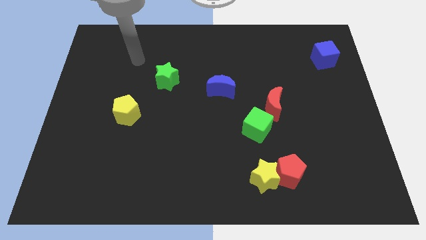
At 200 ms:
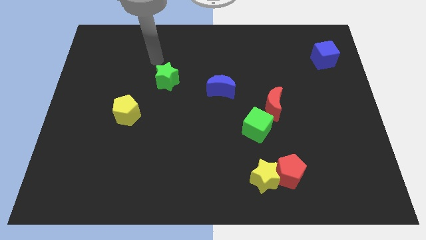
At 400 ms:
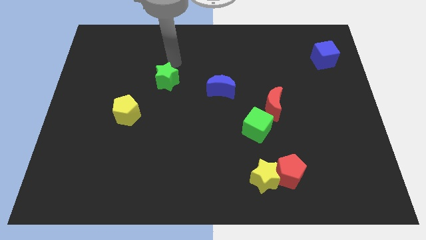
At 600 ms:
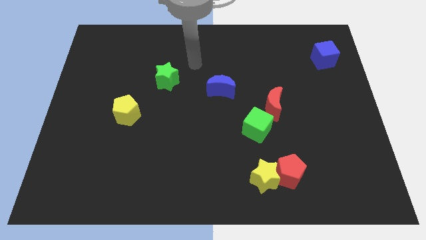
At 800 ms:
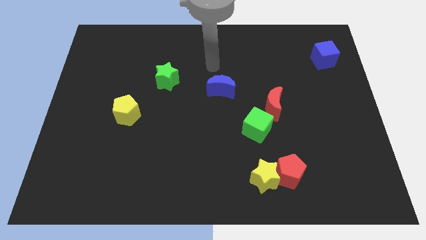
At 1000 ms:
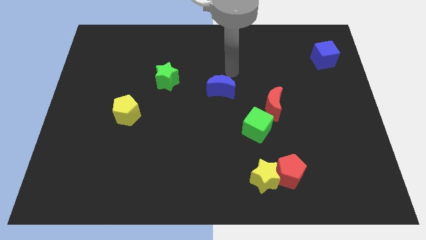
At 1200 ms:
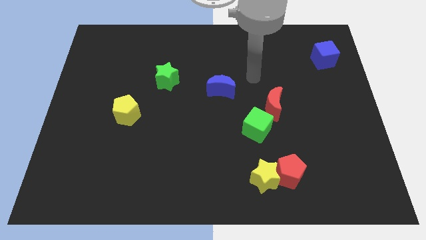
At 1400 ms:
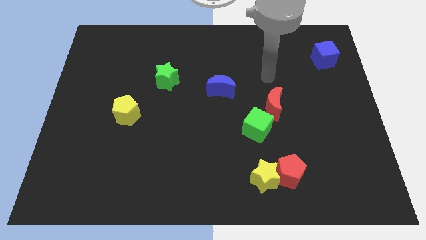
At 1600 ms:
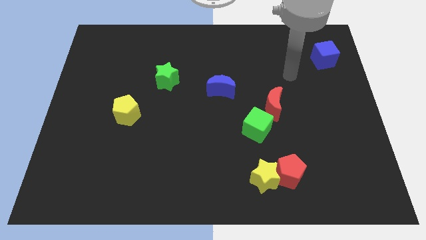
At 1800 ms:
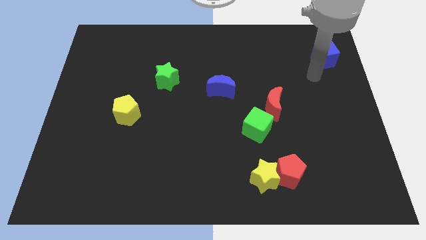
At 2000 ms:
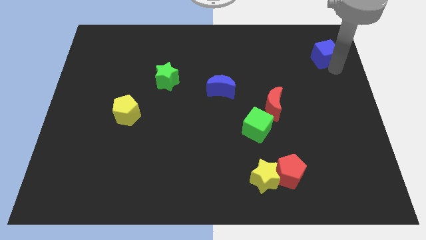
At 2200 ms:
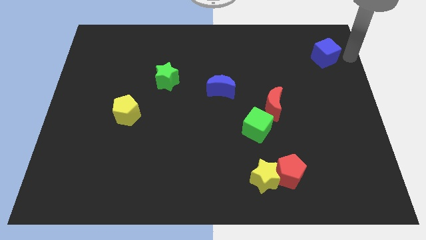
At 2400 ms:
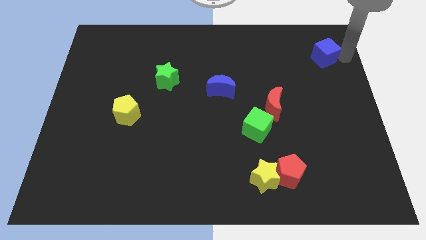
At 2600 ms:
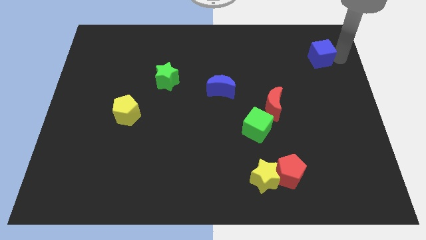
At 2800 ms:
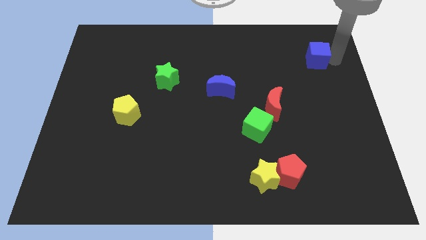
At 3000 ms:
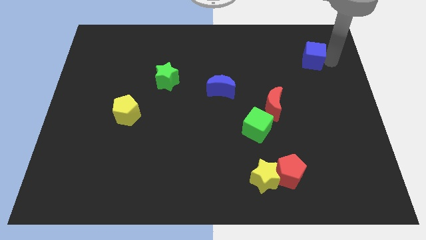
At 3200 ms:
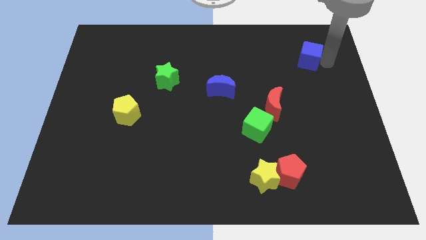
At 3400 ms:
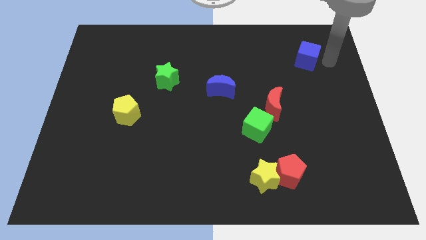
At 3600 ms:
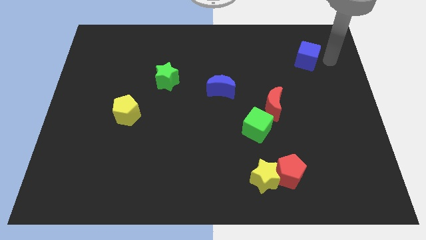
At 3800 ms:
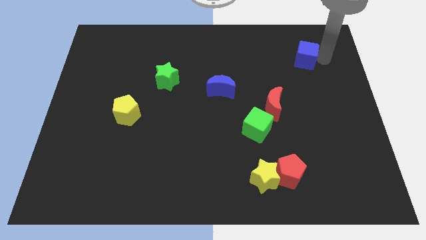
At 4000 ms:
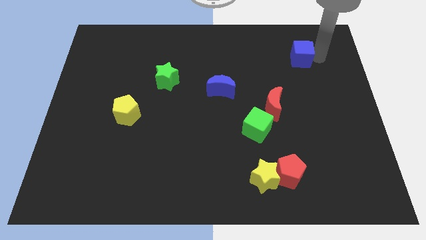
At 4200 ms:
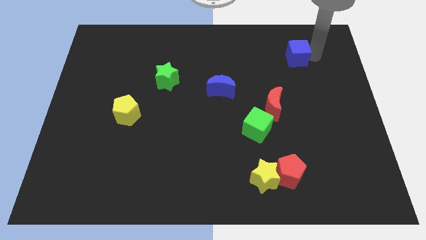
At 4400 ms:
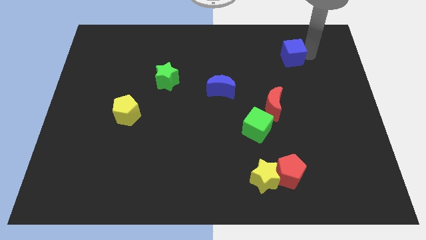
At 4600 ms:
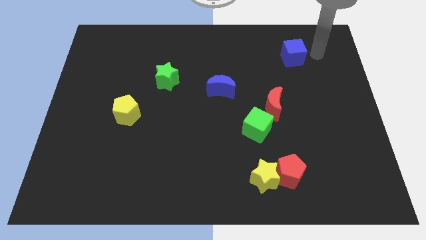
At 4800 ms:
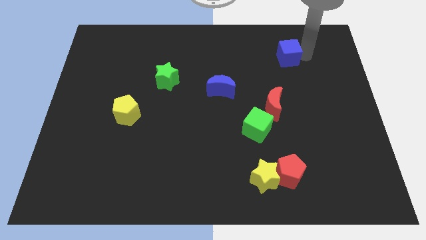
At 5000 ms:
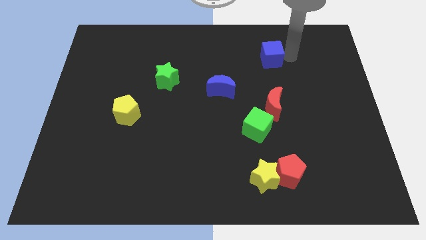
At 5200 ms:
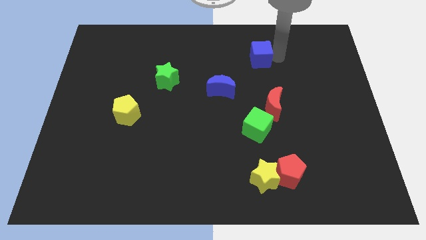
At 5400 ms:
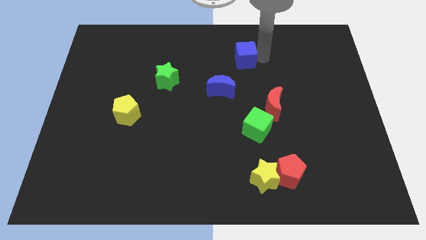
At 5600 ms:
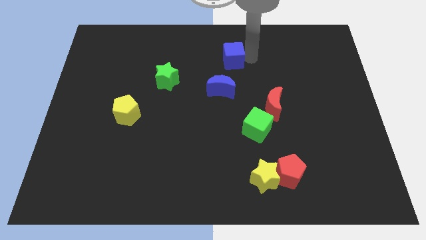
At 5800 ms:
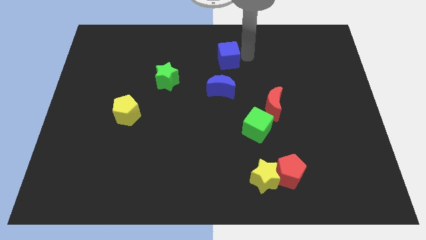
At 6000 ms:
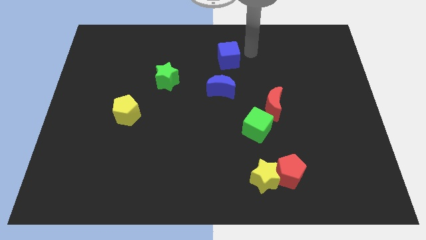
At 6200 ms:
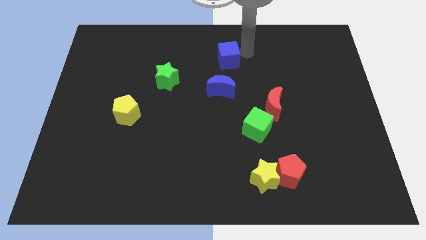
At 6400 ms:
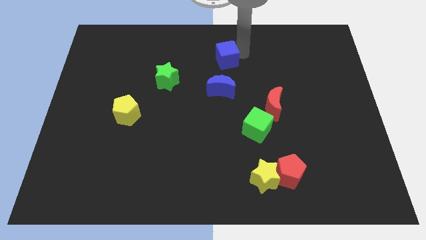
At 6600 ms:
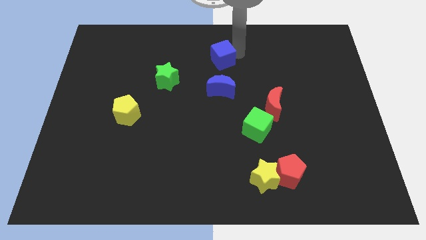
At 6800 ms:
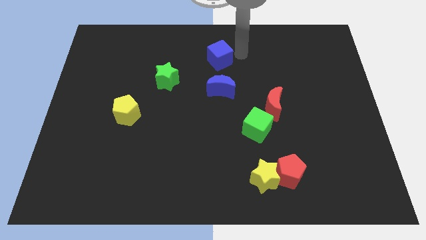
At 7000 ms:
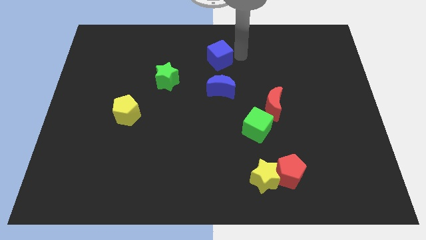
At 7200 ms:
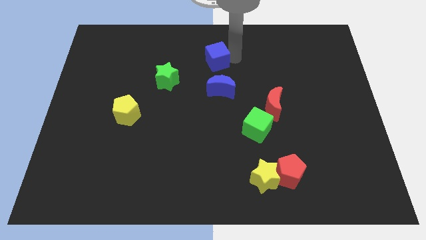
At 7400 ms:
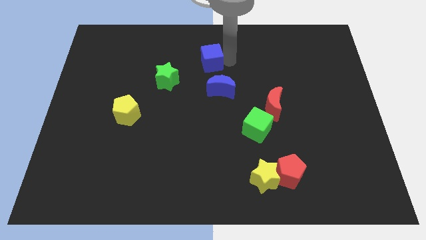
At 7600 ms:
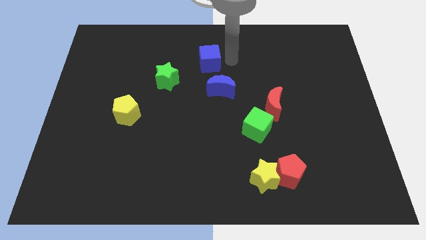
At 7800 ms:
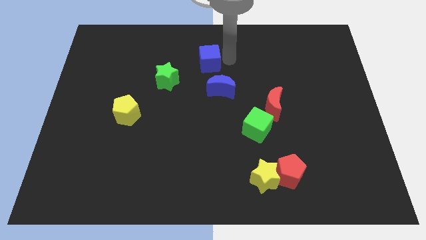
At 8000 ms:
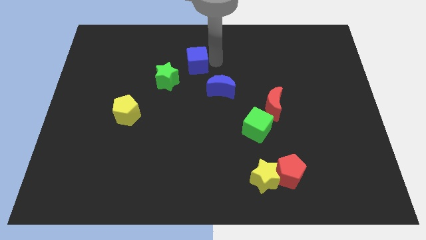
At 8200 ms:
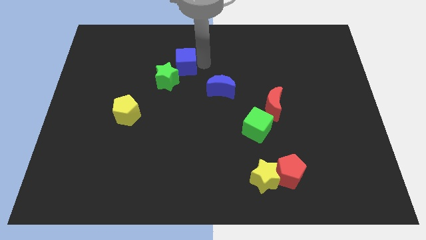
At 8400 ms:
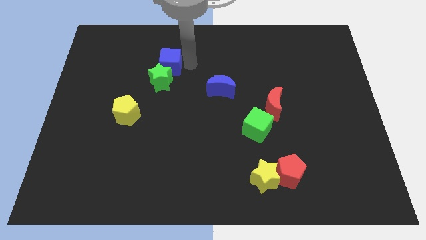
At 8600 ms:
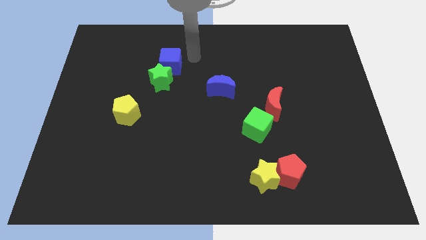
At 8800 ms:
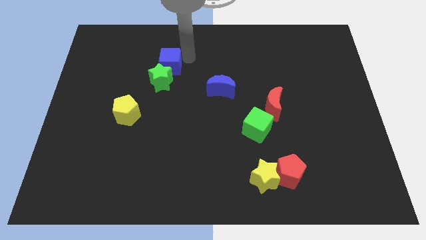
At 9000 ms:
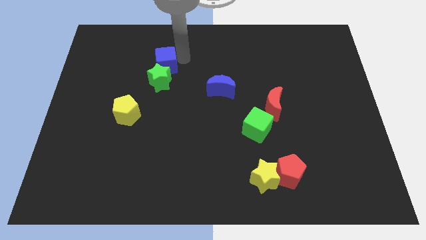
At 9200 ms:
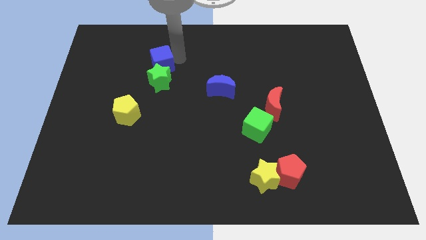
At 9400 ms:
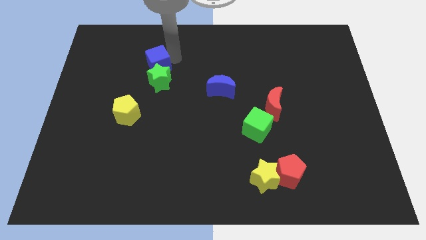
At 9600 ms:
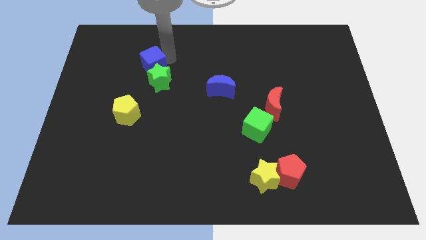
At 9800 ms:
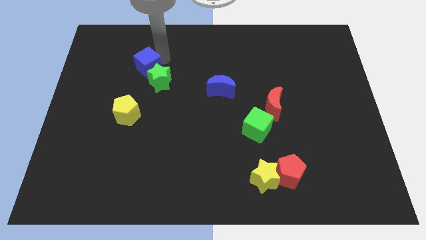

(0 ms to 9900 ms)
push the blue cube to the top side of the yellow pentagon

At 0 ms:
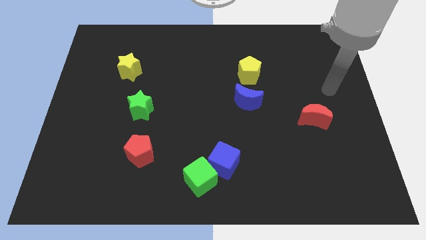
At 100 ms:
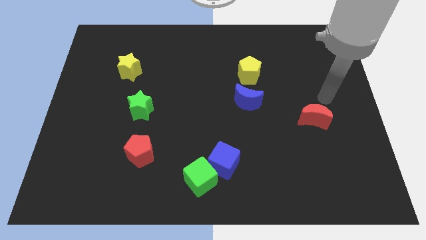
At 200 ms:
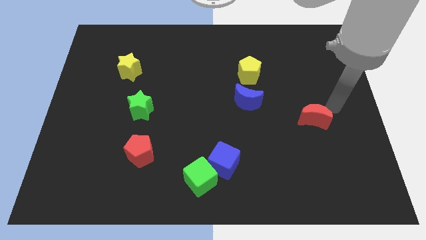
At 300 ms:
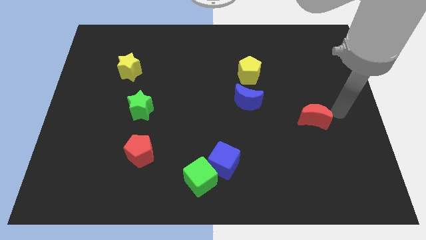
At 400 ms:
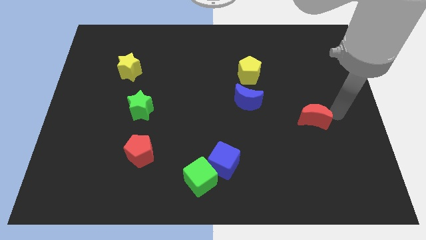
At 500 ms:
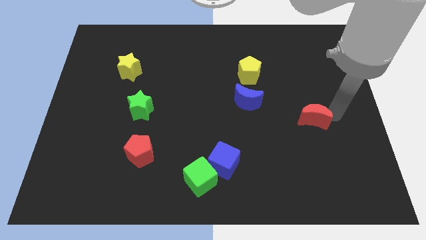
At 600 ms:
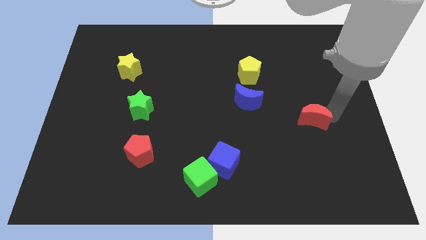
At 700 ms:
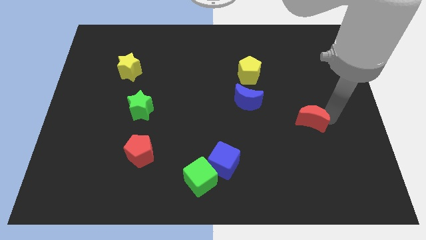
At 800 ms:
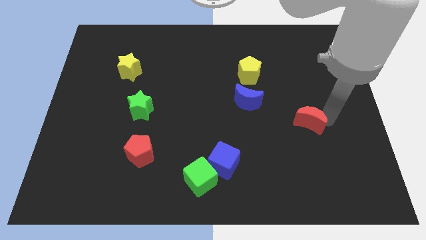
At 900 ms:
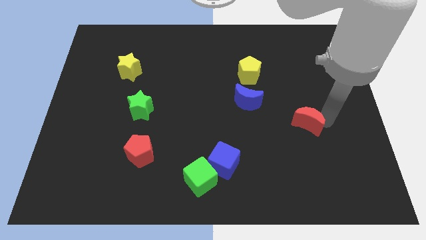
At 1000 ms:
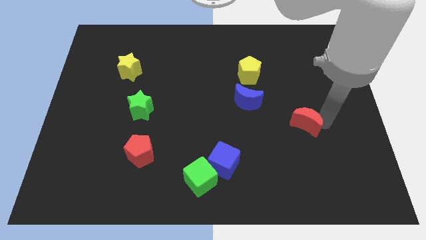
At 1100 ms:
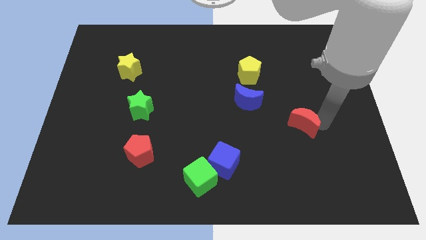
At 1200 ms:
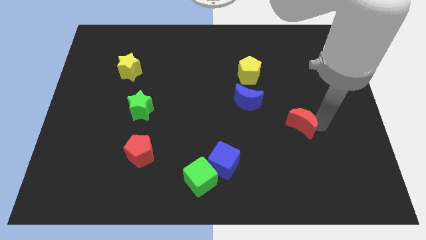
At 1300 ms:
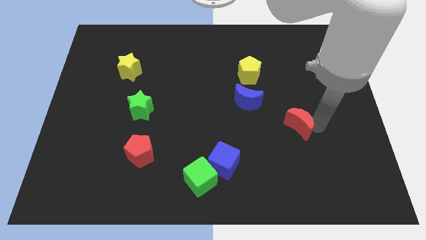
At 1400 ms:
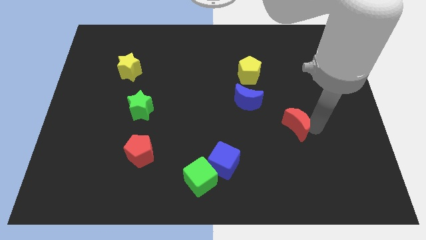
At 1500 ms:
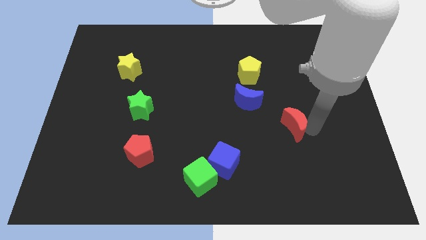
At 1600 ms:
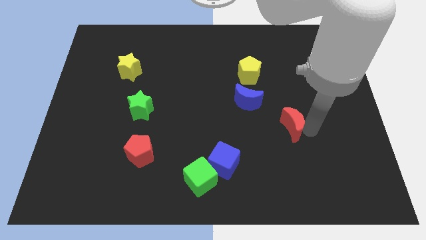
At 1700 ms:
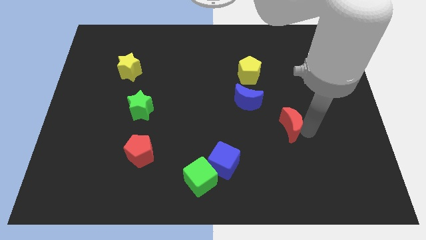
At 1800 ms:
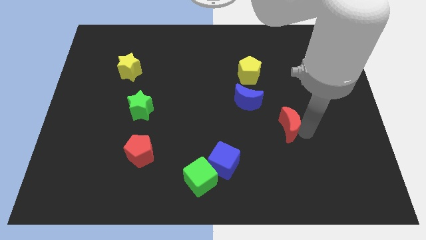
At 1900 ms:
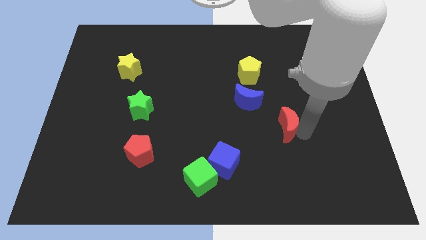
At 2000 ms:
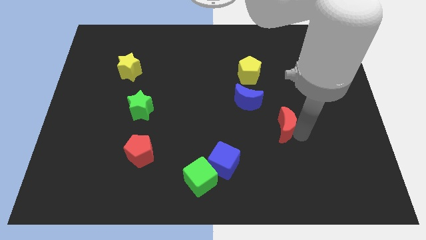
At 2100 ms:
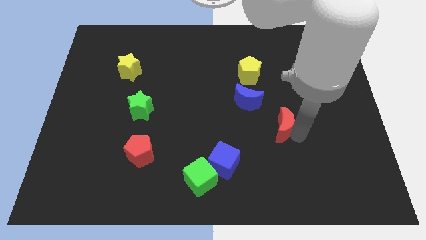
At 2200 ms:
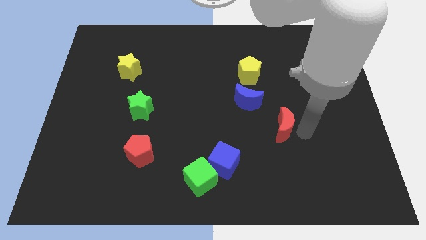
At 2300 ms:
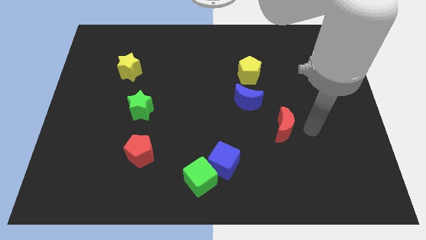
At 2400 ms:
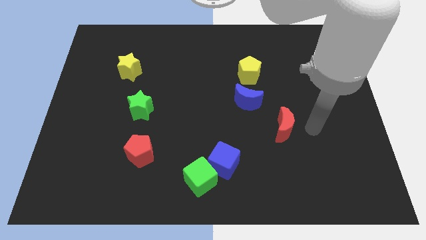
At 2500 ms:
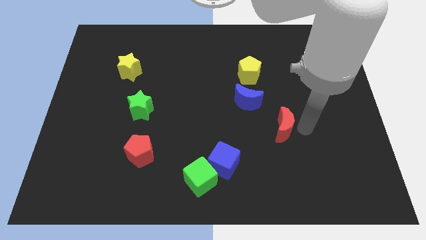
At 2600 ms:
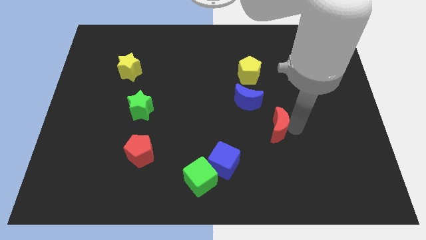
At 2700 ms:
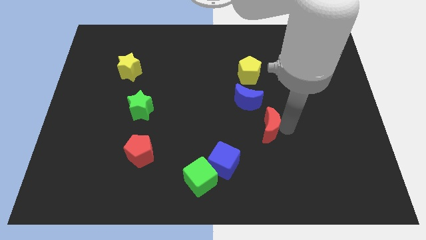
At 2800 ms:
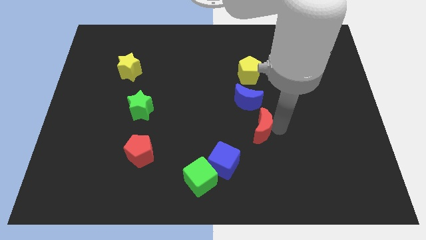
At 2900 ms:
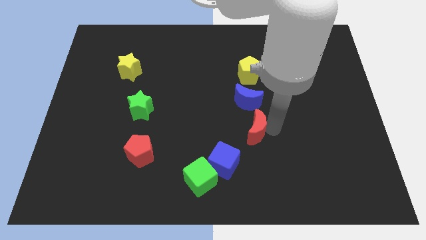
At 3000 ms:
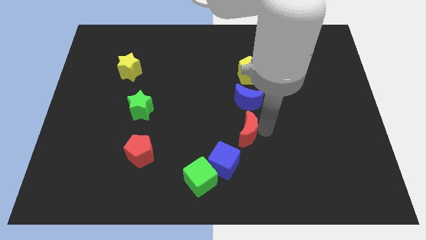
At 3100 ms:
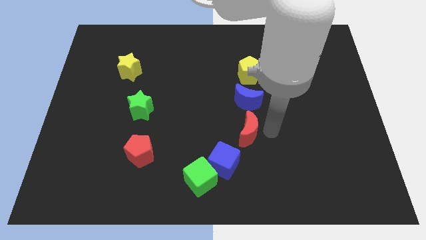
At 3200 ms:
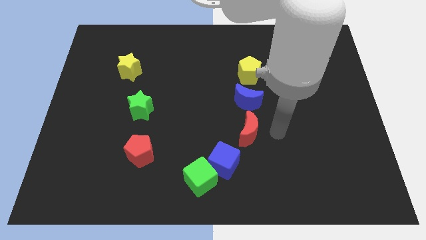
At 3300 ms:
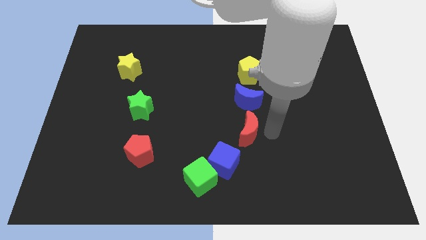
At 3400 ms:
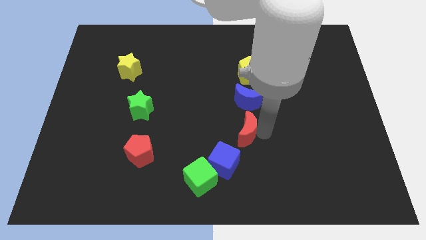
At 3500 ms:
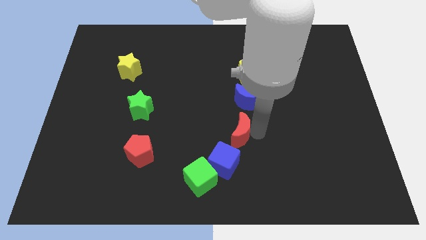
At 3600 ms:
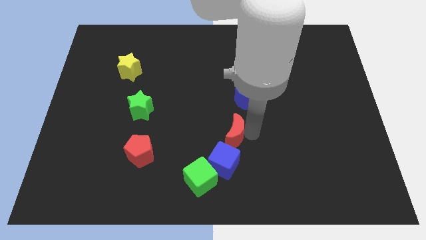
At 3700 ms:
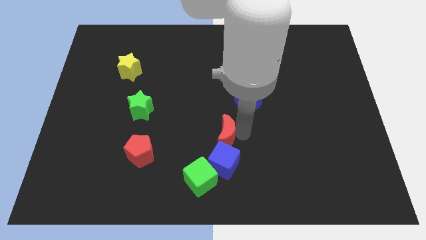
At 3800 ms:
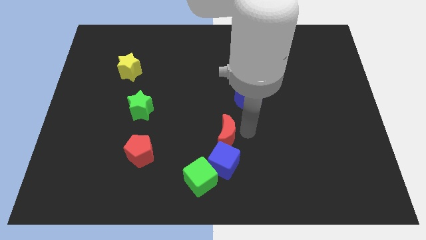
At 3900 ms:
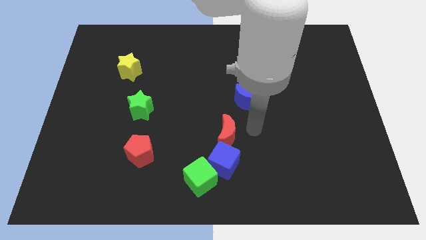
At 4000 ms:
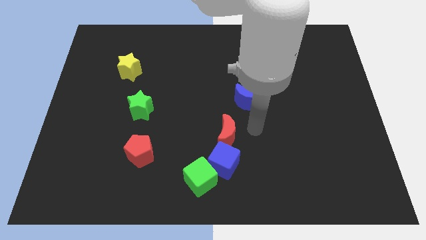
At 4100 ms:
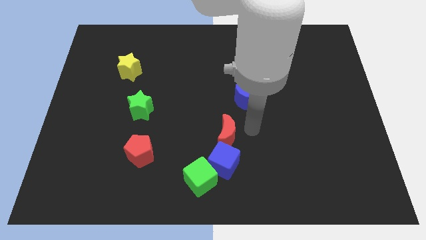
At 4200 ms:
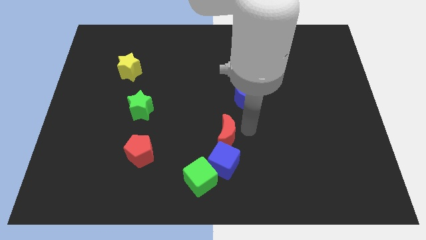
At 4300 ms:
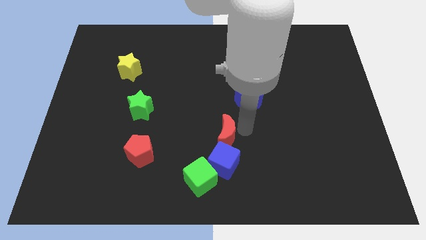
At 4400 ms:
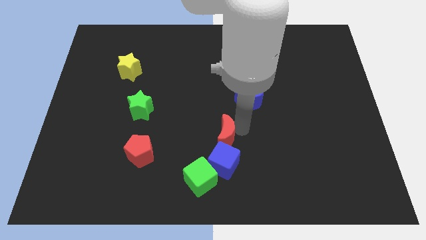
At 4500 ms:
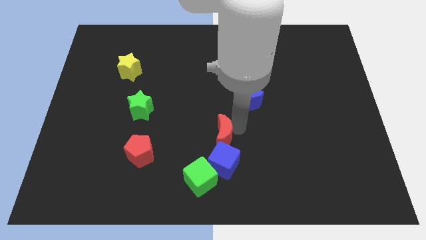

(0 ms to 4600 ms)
slide the red moon to the top left side of the blue cube
